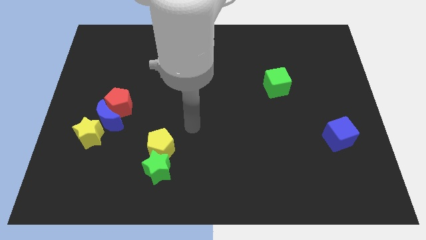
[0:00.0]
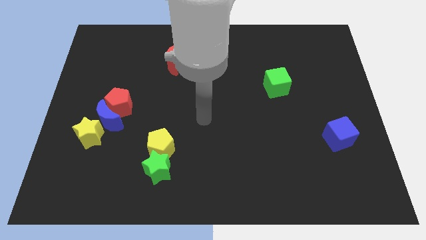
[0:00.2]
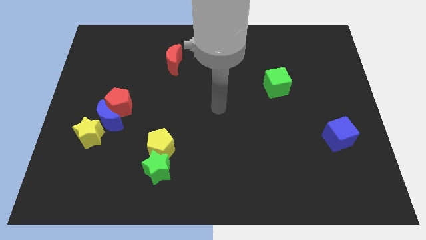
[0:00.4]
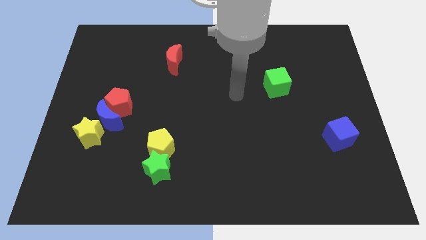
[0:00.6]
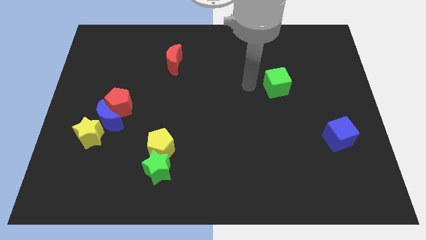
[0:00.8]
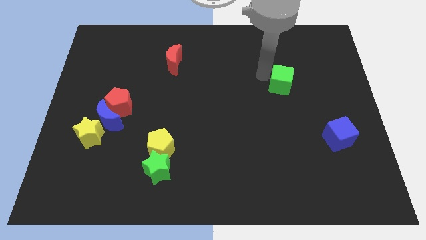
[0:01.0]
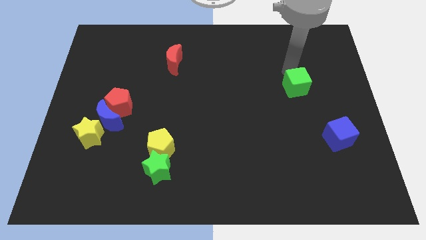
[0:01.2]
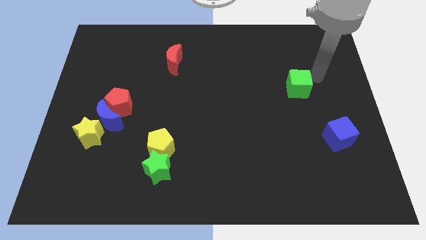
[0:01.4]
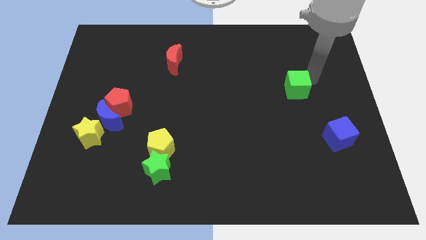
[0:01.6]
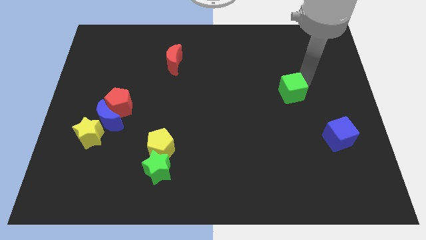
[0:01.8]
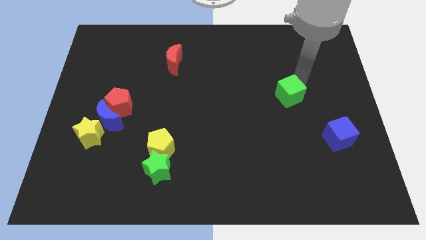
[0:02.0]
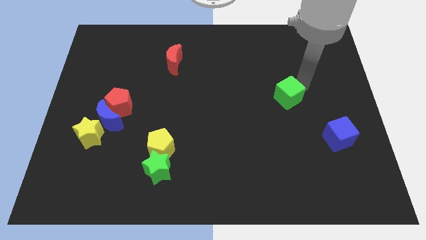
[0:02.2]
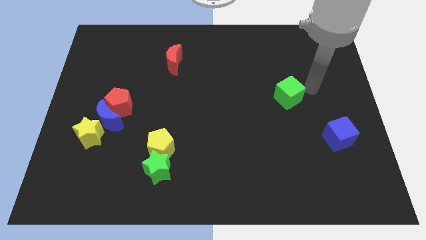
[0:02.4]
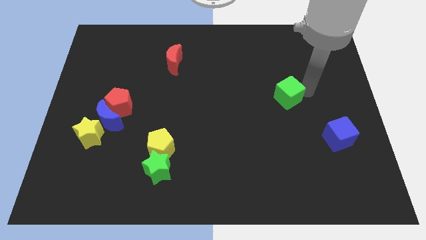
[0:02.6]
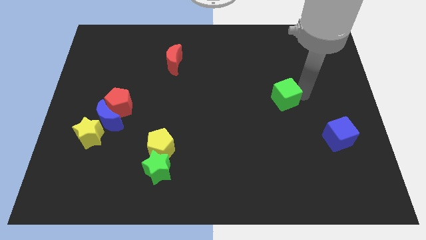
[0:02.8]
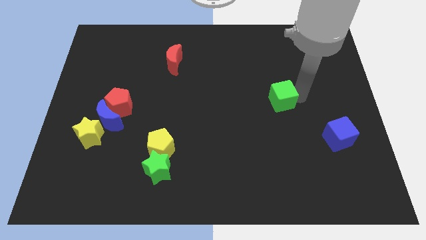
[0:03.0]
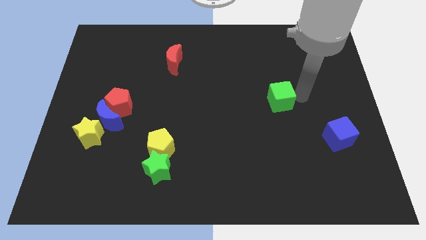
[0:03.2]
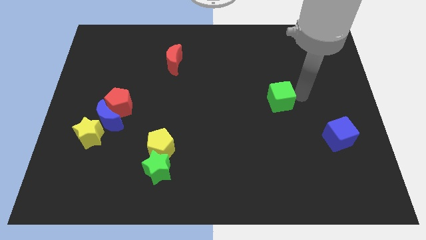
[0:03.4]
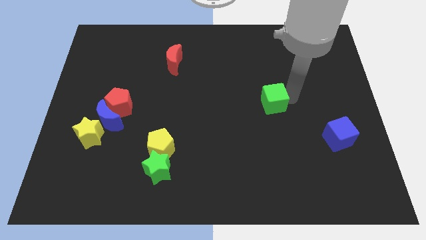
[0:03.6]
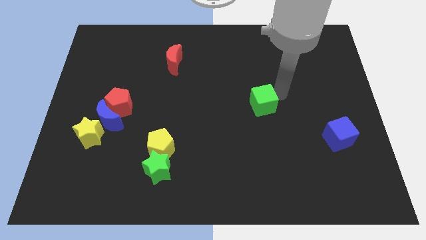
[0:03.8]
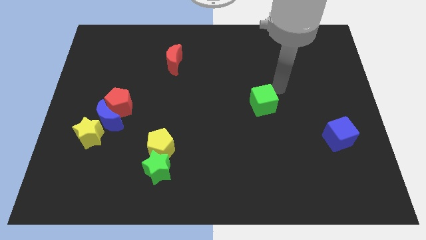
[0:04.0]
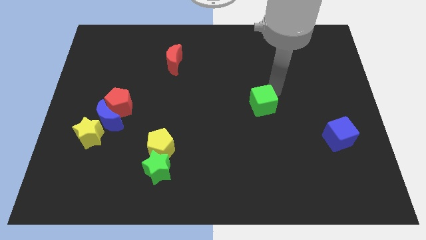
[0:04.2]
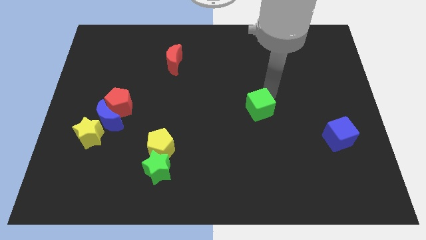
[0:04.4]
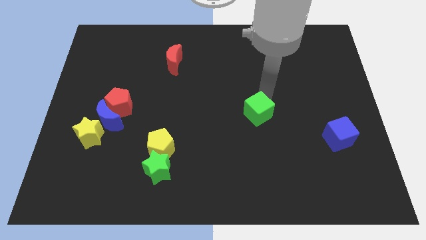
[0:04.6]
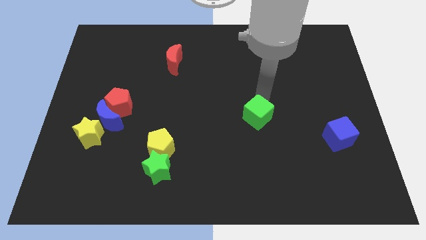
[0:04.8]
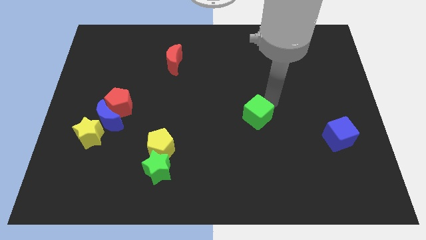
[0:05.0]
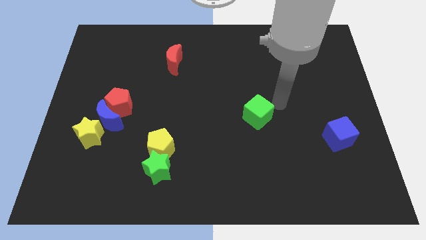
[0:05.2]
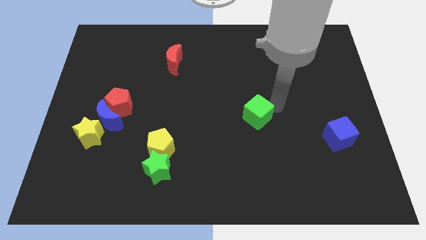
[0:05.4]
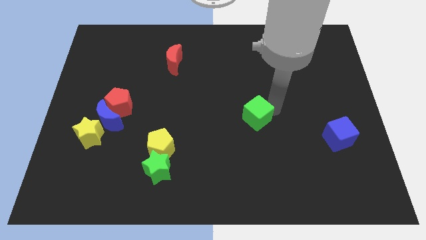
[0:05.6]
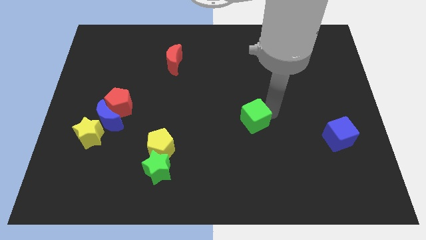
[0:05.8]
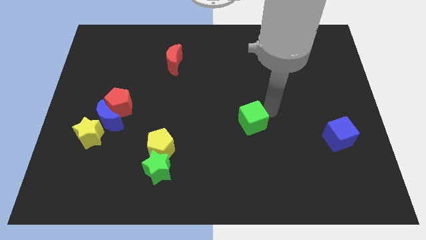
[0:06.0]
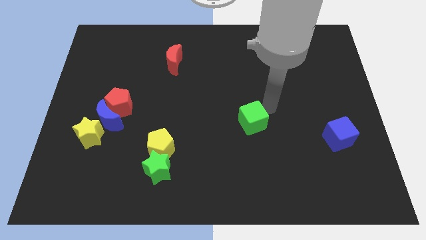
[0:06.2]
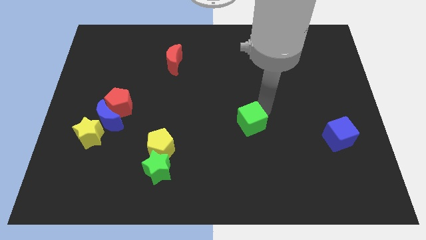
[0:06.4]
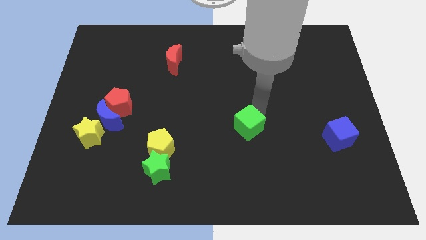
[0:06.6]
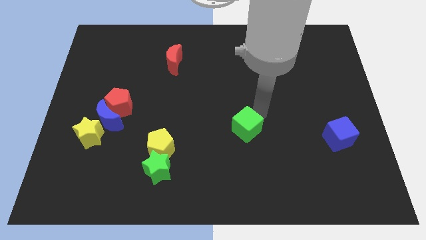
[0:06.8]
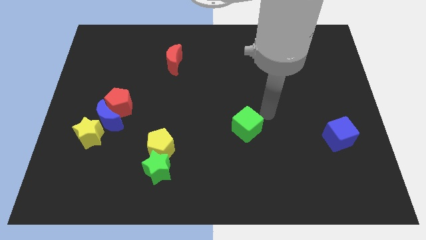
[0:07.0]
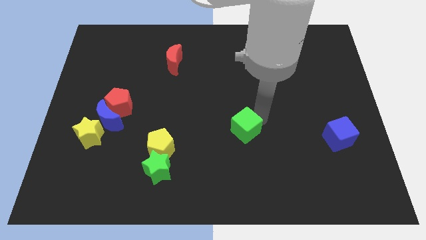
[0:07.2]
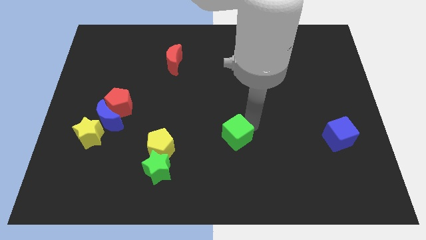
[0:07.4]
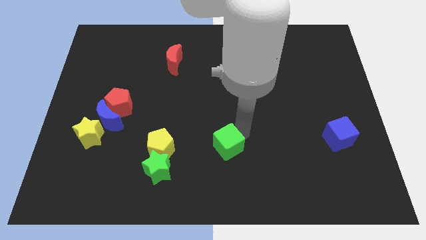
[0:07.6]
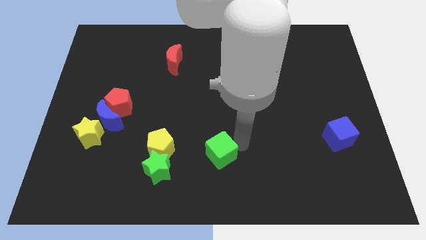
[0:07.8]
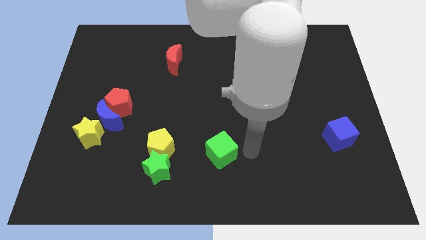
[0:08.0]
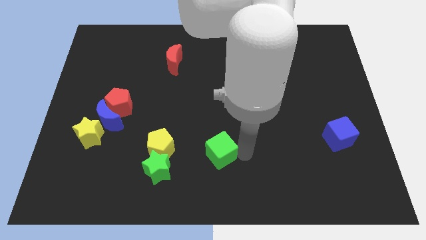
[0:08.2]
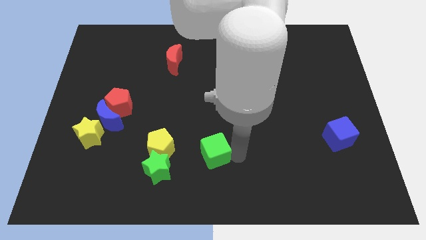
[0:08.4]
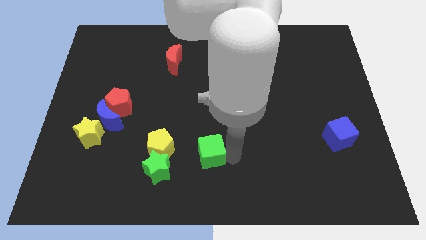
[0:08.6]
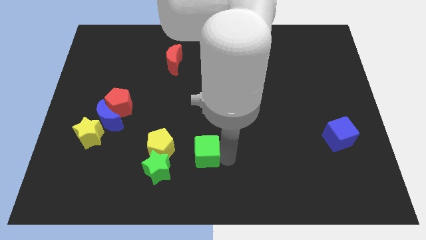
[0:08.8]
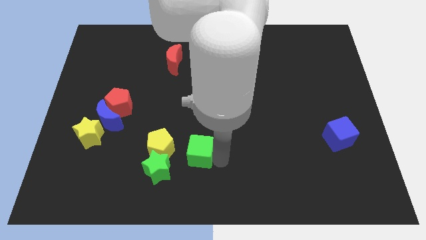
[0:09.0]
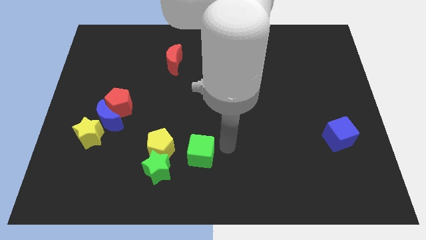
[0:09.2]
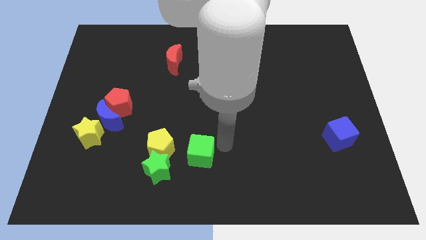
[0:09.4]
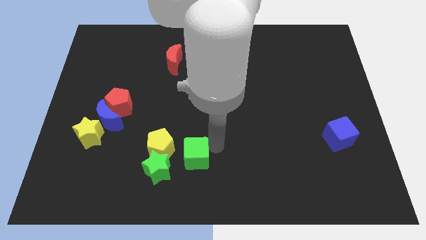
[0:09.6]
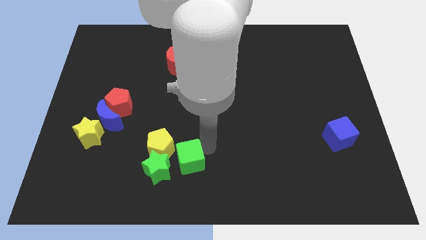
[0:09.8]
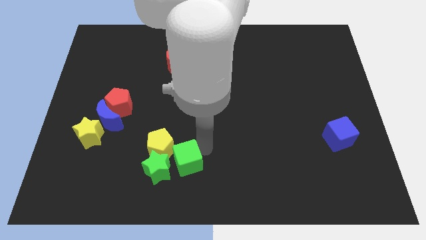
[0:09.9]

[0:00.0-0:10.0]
move the green cube close to the green star

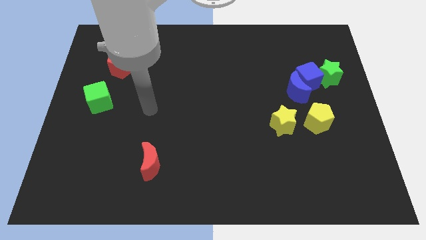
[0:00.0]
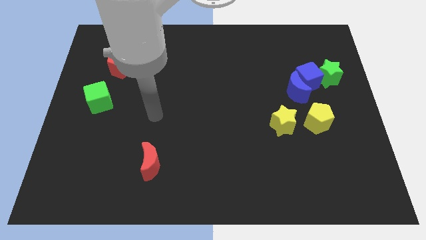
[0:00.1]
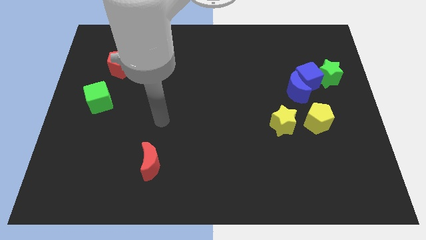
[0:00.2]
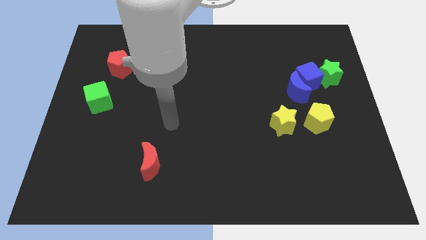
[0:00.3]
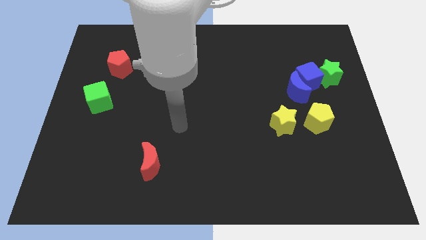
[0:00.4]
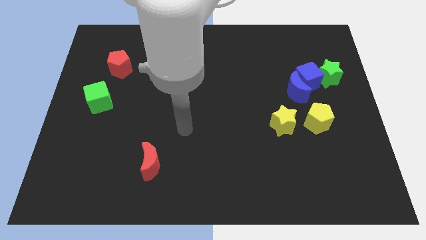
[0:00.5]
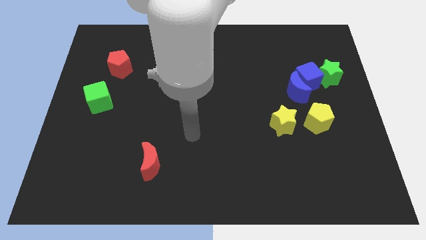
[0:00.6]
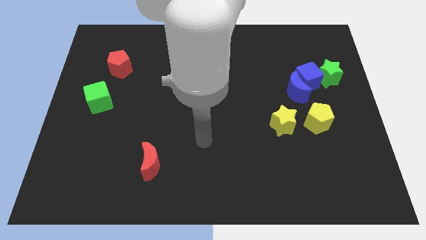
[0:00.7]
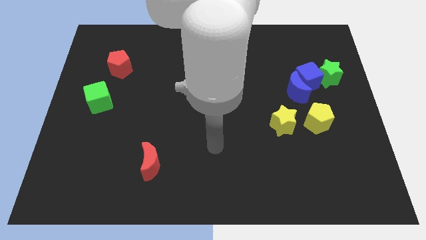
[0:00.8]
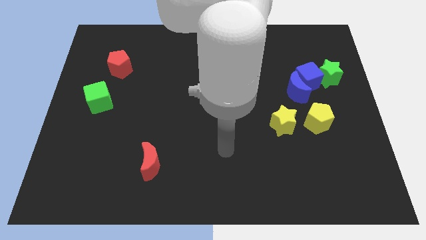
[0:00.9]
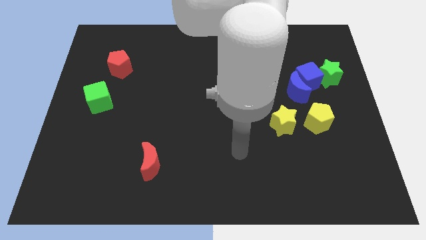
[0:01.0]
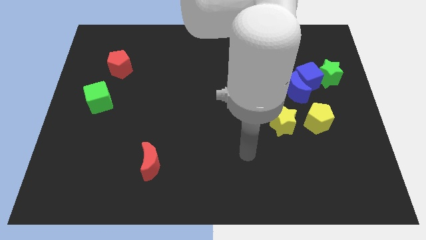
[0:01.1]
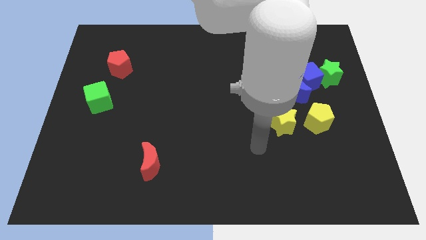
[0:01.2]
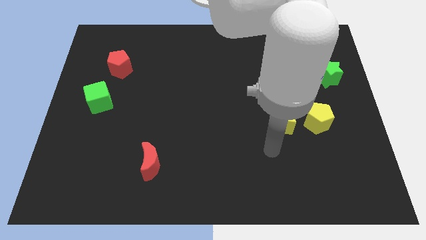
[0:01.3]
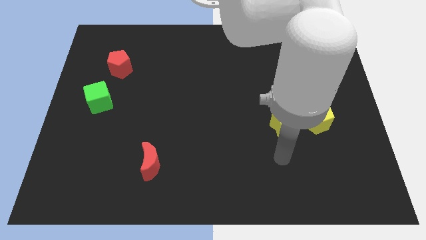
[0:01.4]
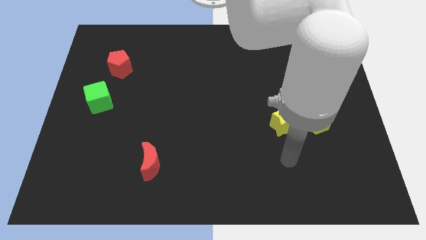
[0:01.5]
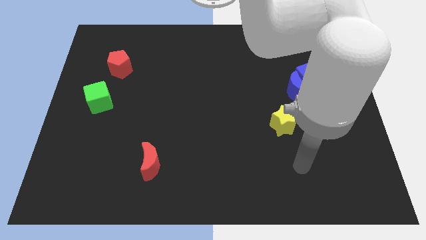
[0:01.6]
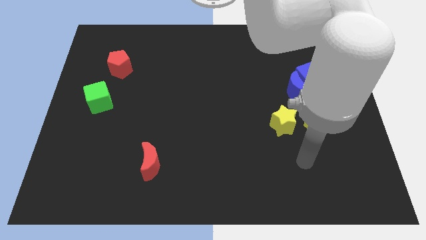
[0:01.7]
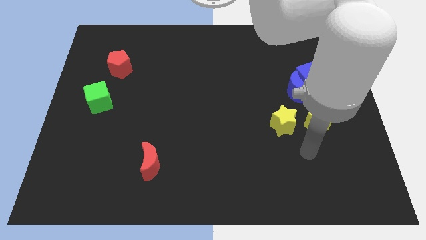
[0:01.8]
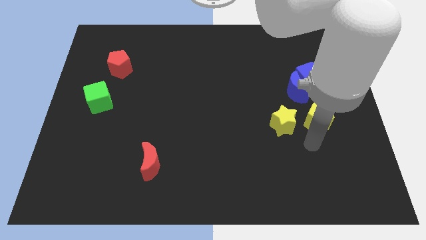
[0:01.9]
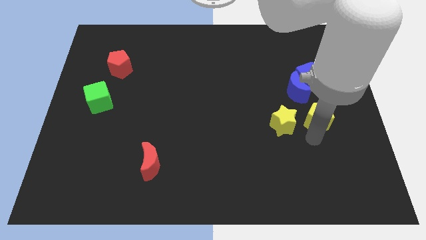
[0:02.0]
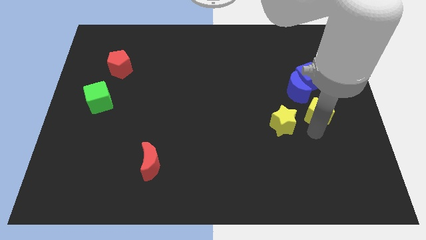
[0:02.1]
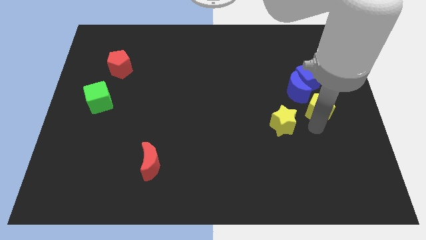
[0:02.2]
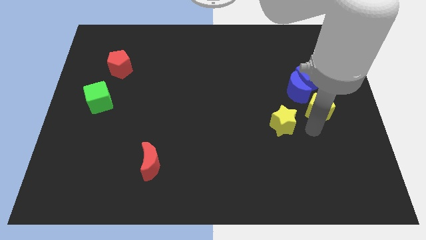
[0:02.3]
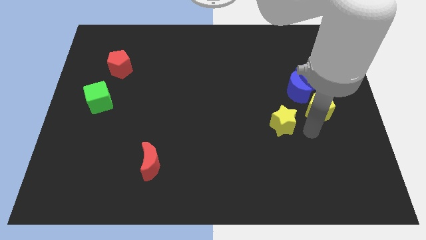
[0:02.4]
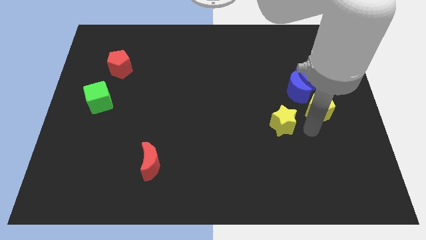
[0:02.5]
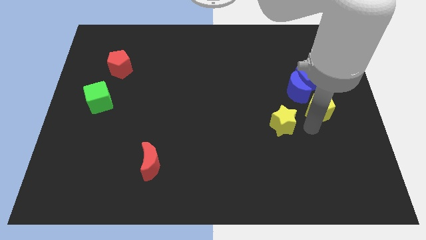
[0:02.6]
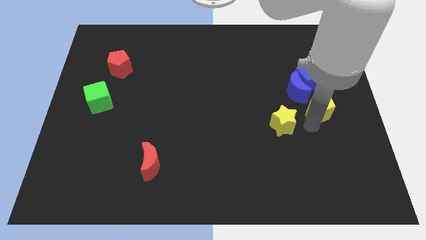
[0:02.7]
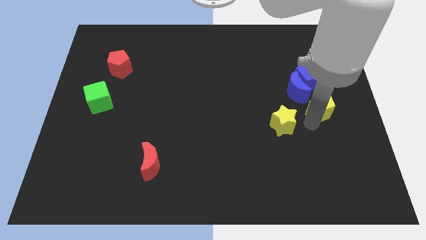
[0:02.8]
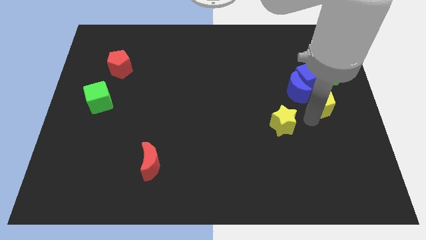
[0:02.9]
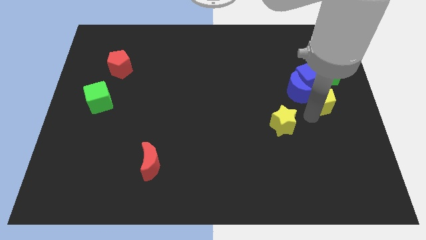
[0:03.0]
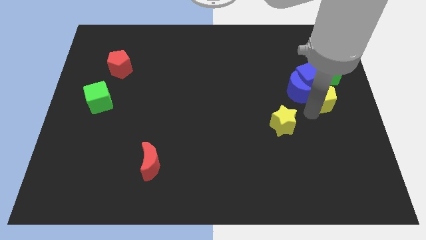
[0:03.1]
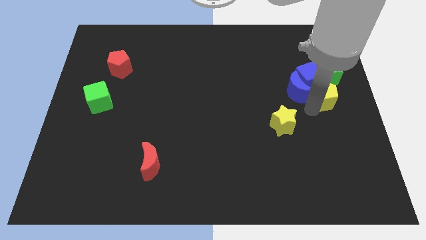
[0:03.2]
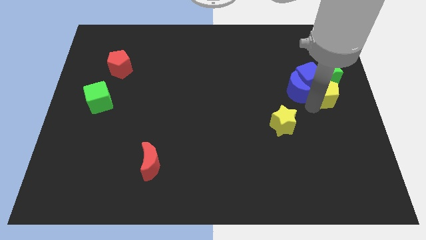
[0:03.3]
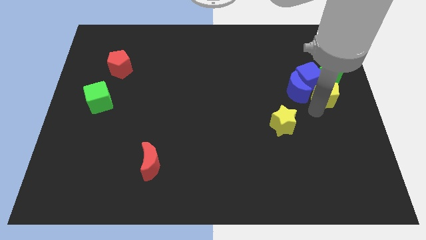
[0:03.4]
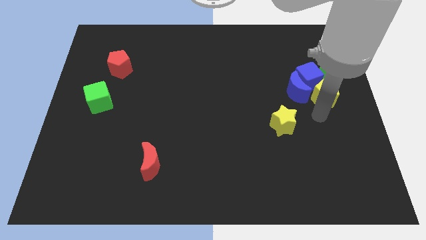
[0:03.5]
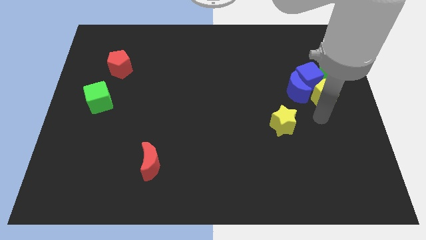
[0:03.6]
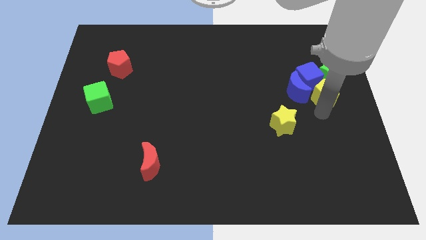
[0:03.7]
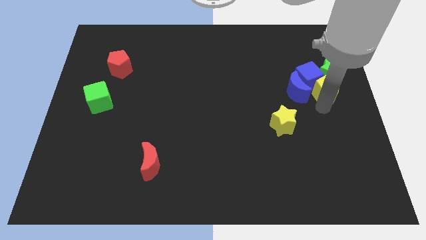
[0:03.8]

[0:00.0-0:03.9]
slide the yellow pentagon close to the green star
